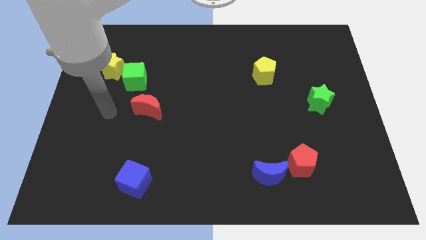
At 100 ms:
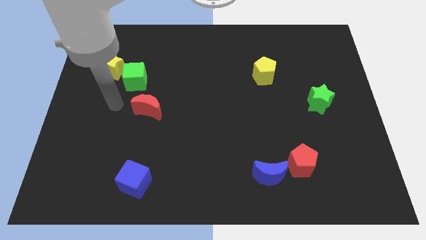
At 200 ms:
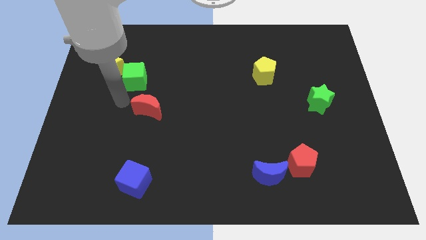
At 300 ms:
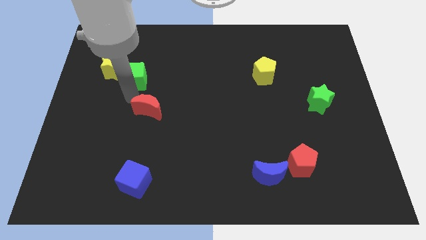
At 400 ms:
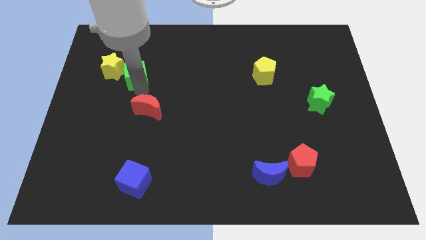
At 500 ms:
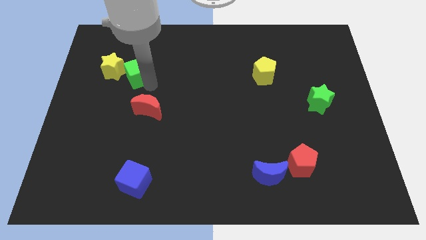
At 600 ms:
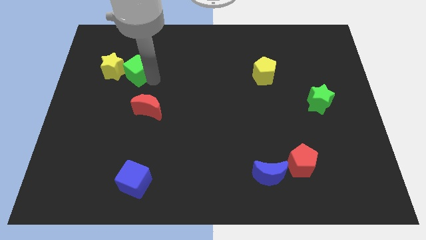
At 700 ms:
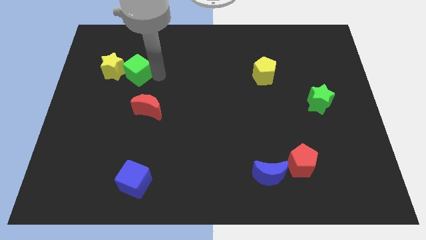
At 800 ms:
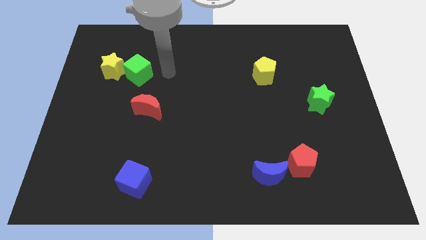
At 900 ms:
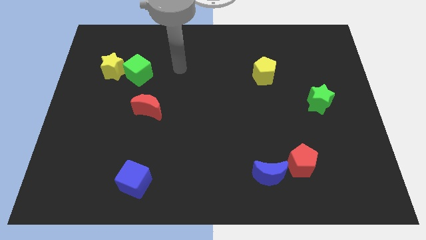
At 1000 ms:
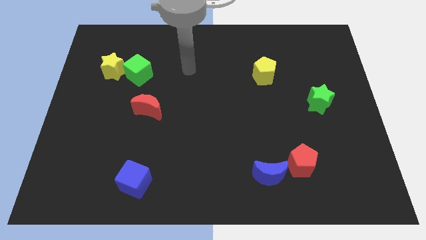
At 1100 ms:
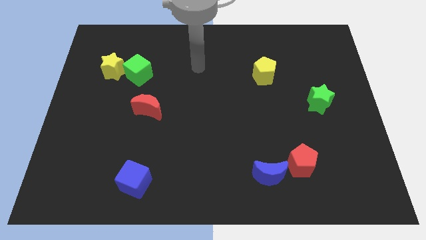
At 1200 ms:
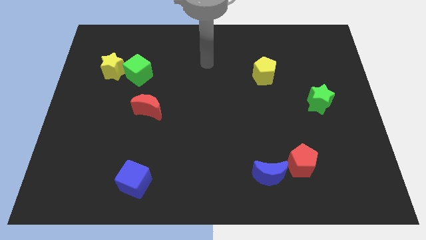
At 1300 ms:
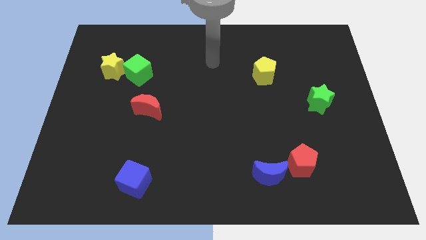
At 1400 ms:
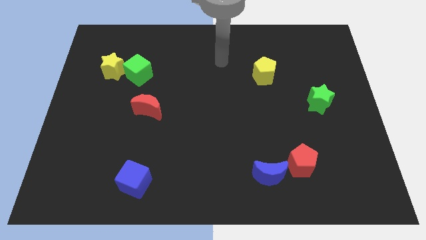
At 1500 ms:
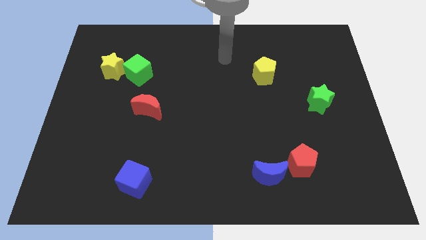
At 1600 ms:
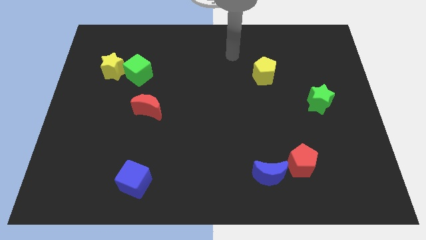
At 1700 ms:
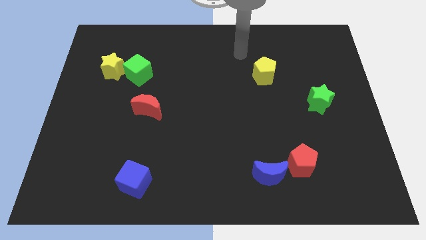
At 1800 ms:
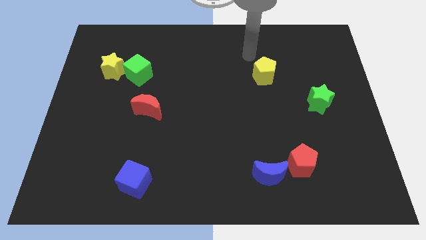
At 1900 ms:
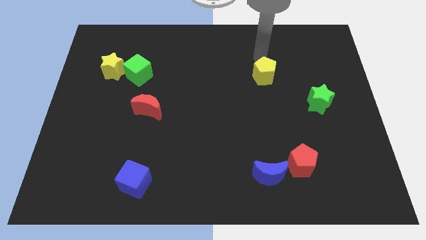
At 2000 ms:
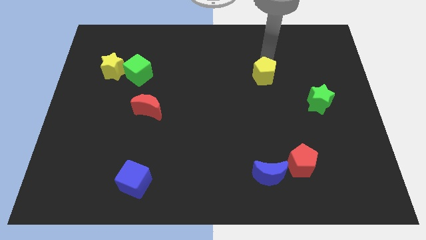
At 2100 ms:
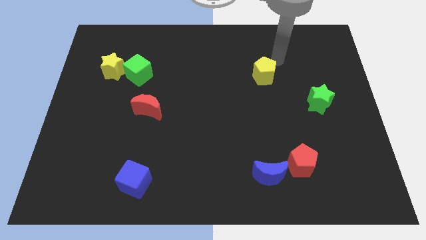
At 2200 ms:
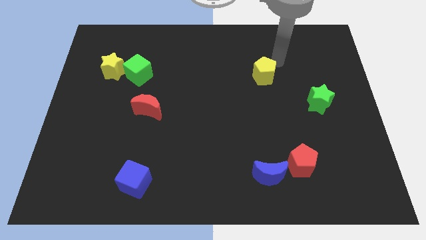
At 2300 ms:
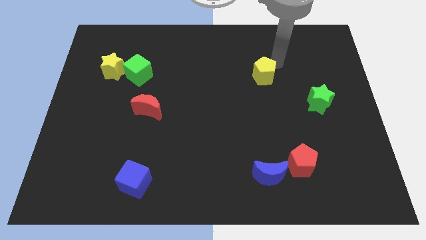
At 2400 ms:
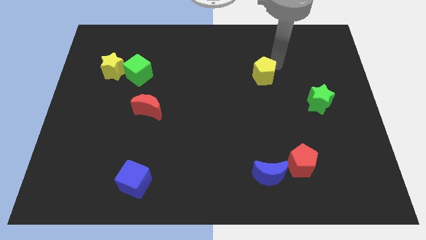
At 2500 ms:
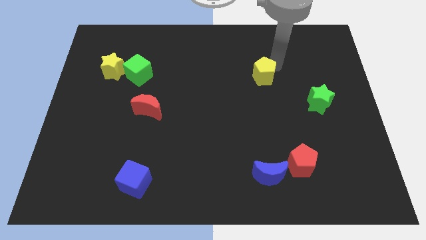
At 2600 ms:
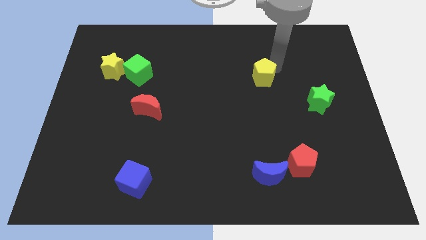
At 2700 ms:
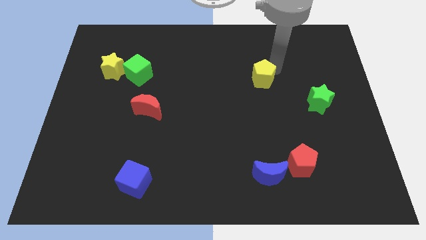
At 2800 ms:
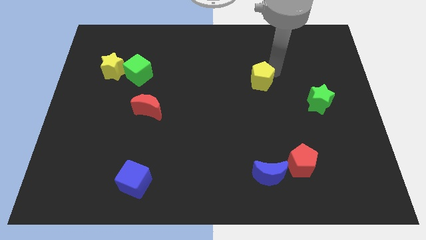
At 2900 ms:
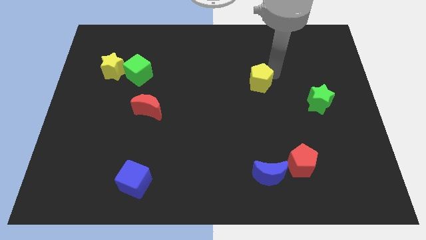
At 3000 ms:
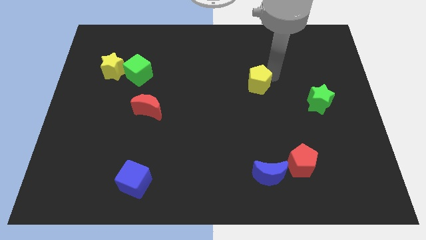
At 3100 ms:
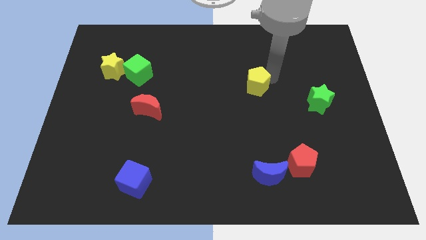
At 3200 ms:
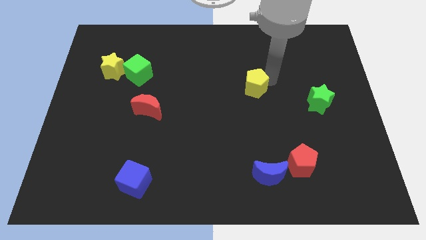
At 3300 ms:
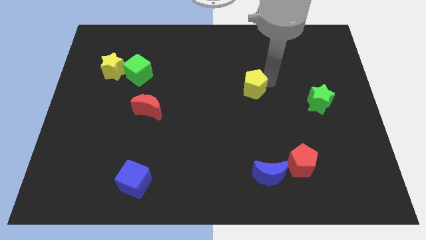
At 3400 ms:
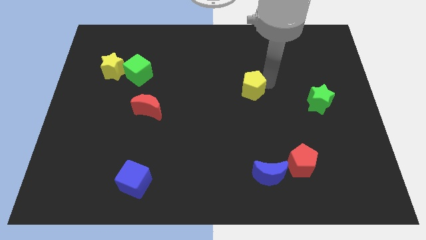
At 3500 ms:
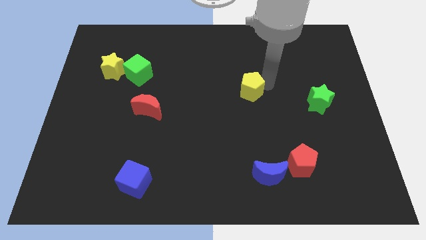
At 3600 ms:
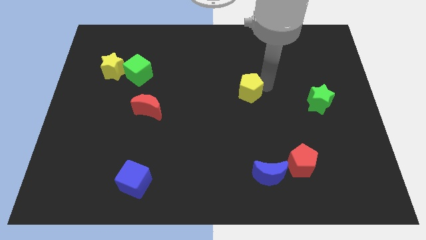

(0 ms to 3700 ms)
slightly push the yellow pentagon downwards and then left

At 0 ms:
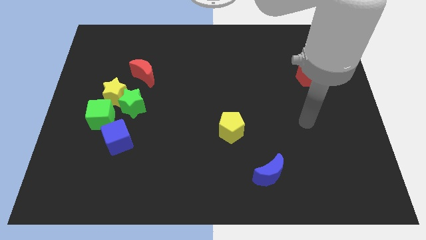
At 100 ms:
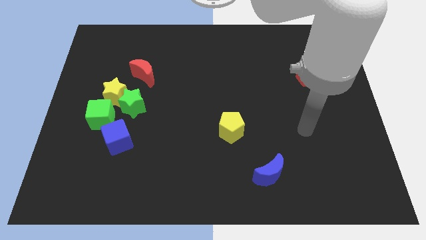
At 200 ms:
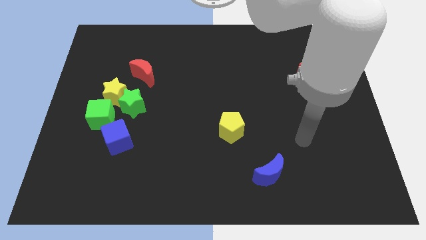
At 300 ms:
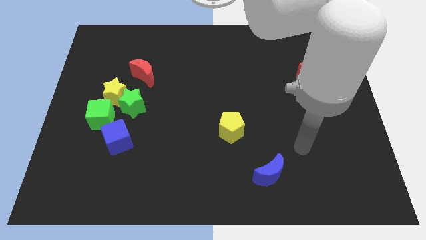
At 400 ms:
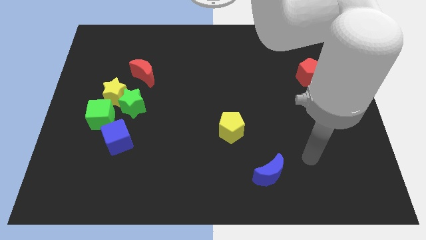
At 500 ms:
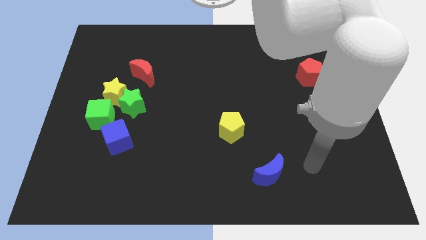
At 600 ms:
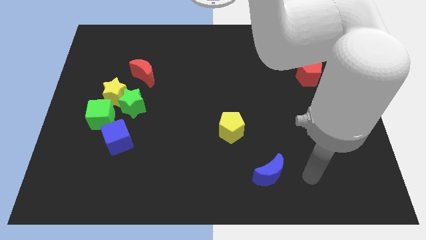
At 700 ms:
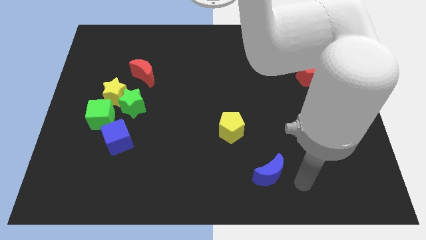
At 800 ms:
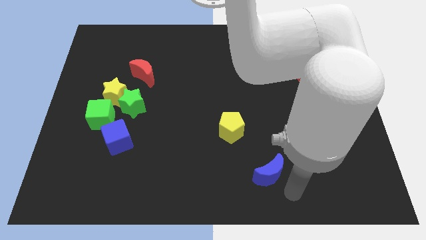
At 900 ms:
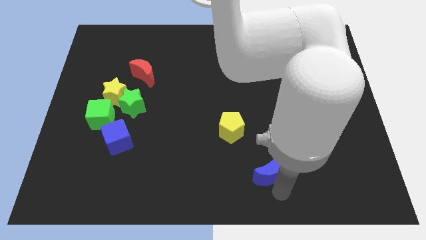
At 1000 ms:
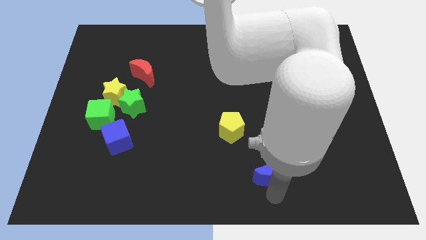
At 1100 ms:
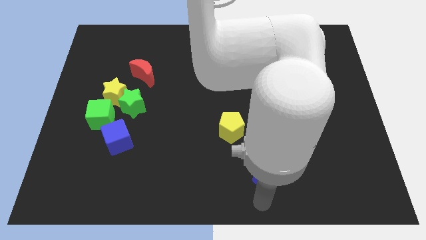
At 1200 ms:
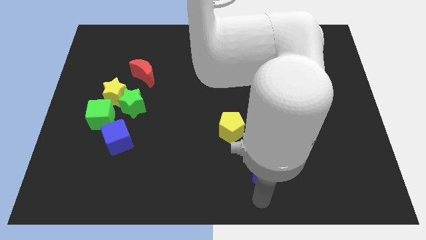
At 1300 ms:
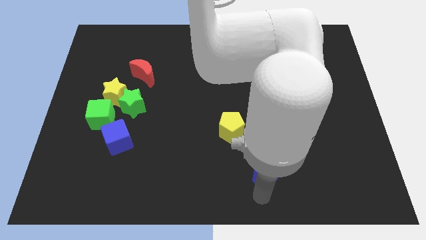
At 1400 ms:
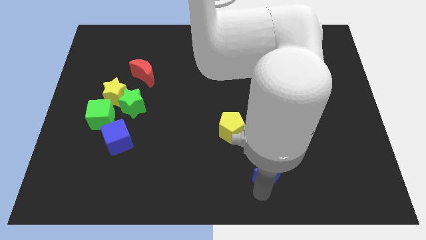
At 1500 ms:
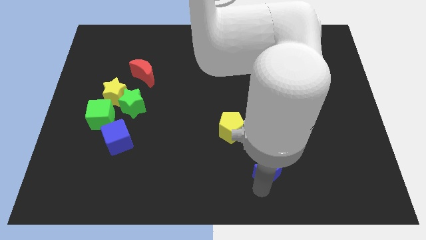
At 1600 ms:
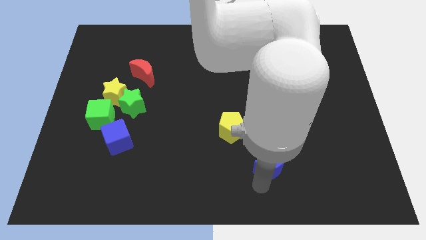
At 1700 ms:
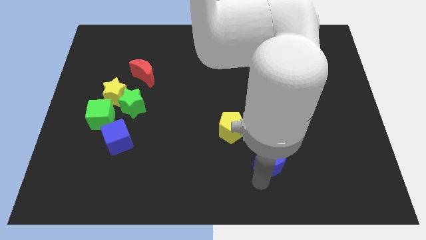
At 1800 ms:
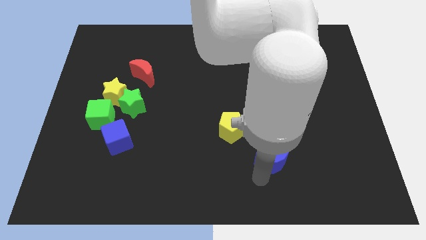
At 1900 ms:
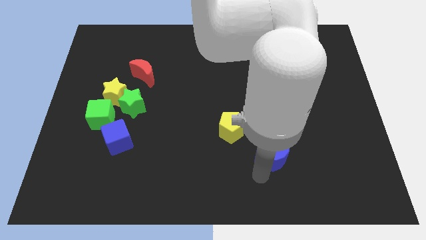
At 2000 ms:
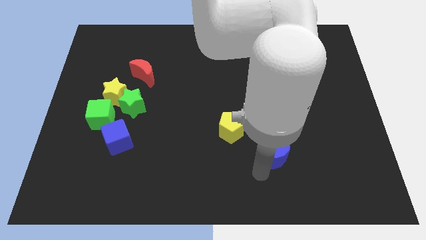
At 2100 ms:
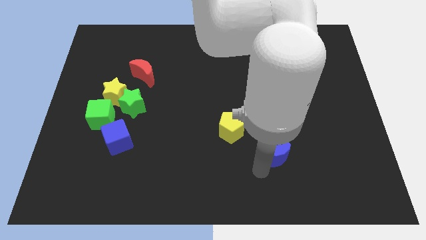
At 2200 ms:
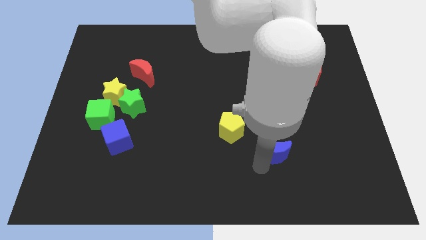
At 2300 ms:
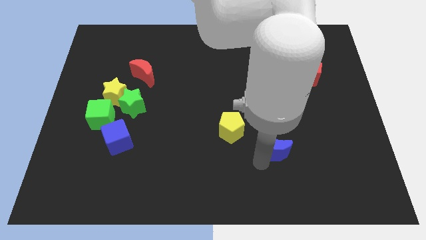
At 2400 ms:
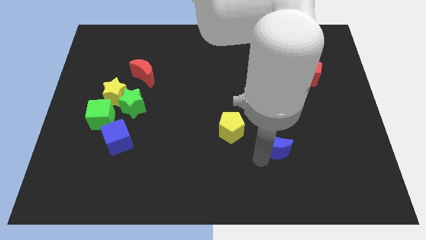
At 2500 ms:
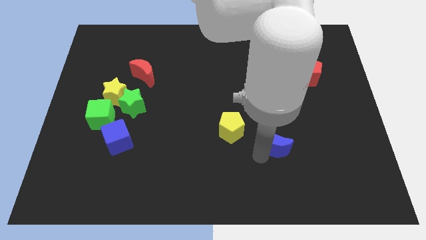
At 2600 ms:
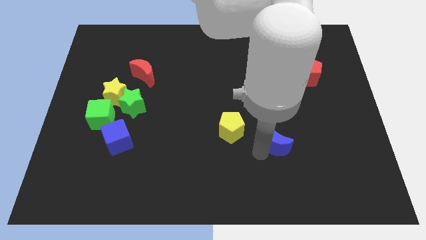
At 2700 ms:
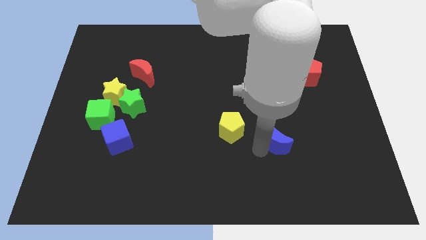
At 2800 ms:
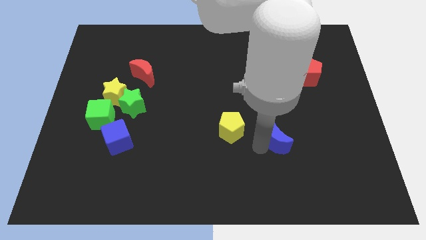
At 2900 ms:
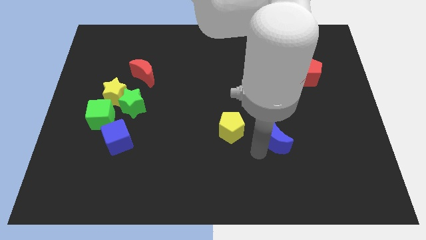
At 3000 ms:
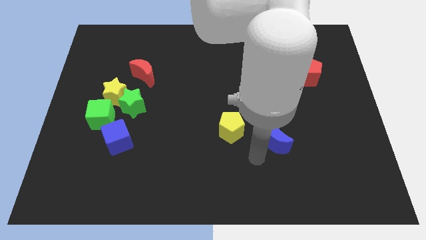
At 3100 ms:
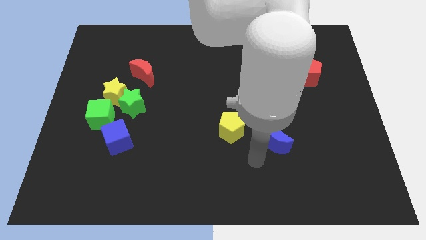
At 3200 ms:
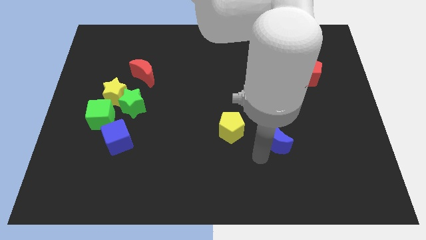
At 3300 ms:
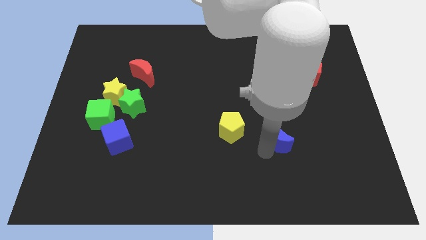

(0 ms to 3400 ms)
push the blue moon upwards and then to the right somewhat

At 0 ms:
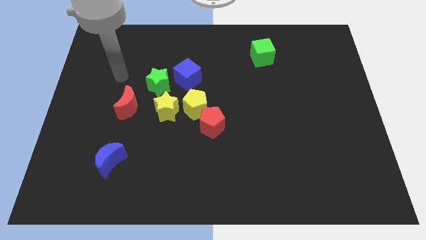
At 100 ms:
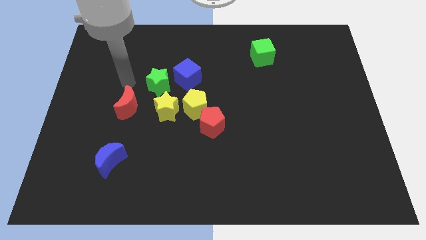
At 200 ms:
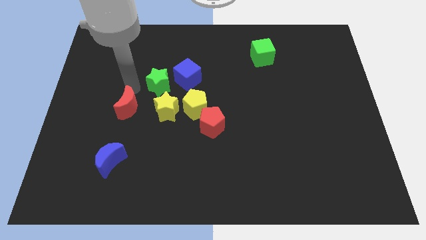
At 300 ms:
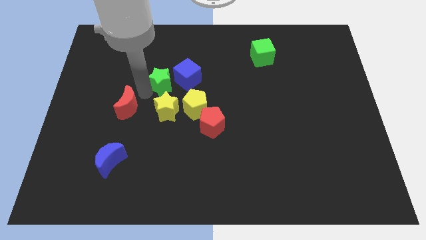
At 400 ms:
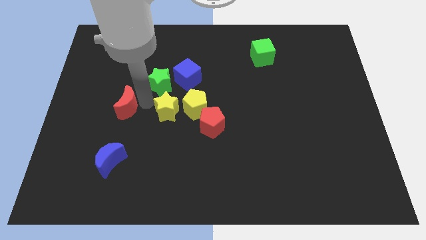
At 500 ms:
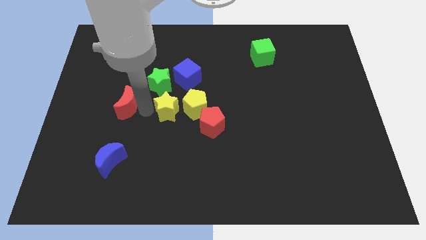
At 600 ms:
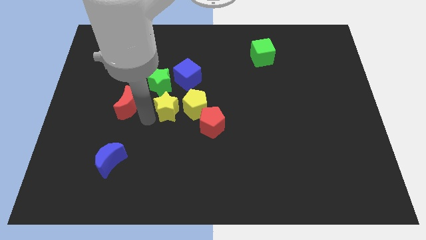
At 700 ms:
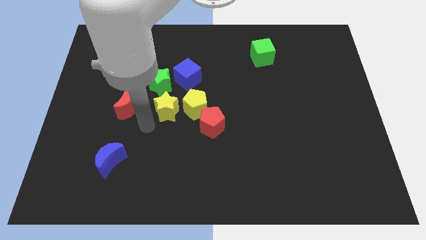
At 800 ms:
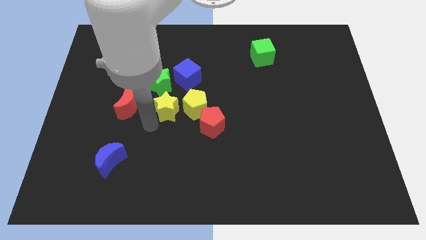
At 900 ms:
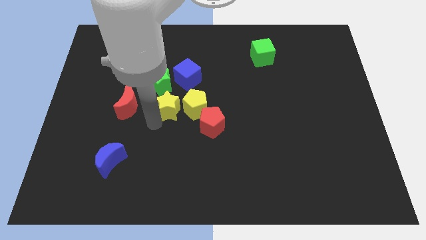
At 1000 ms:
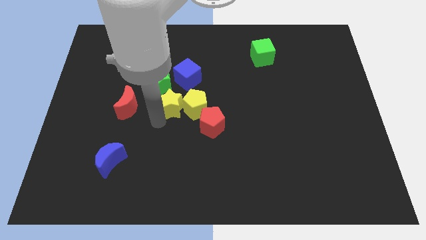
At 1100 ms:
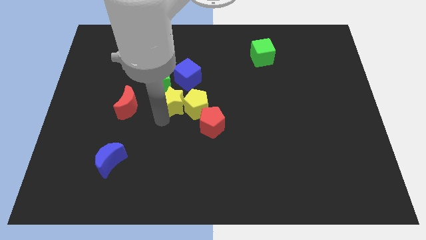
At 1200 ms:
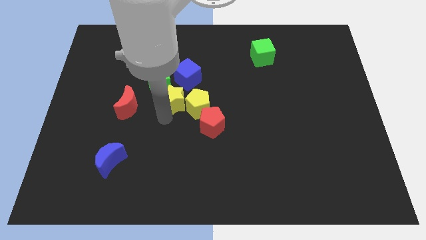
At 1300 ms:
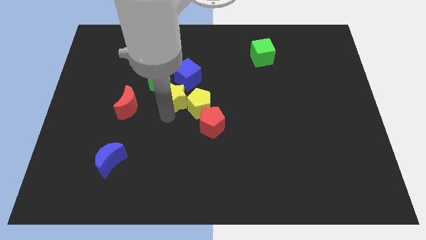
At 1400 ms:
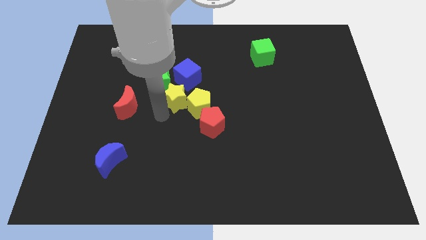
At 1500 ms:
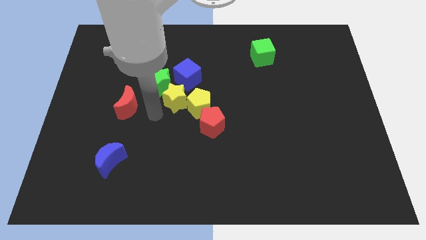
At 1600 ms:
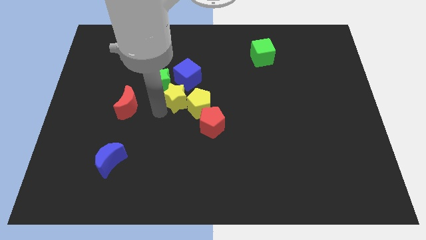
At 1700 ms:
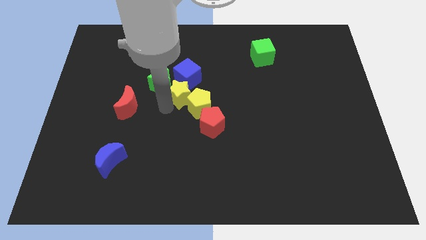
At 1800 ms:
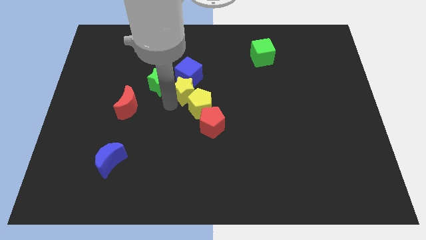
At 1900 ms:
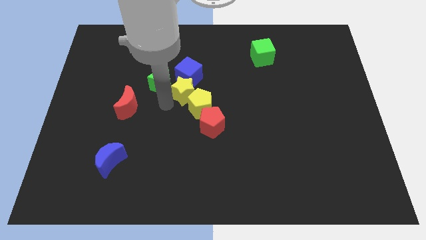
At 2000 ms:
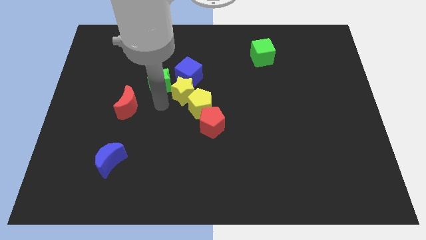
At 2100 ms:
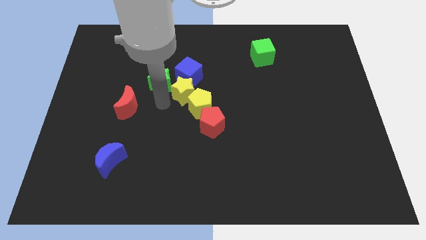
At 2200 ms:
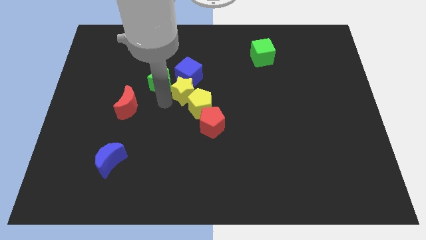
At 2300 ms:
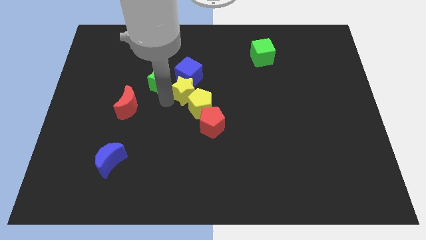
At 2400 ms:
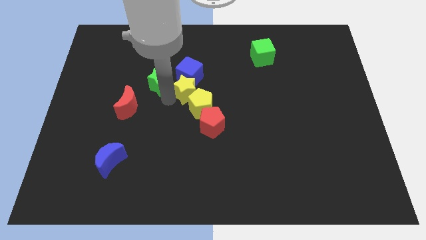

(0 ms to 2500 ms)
move the yellow star up and then right slightly
